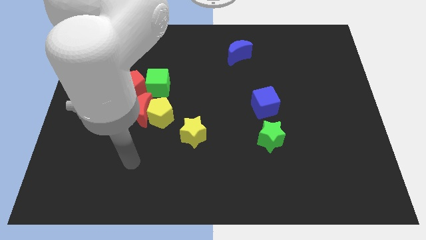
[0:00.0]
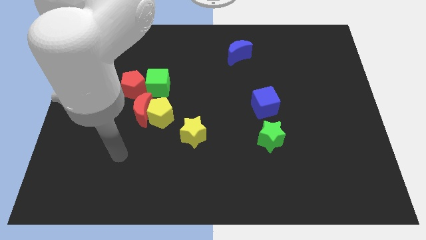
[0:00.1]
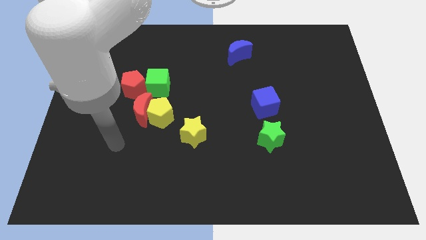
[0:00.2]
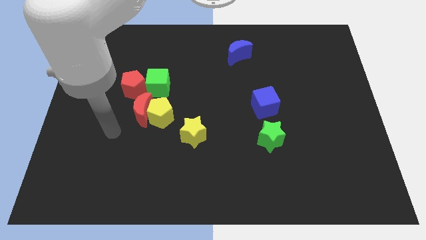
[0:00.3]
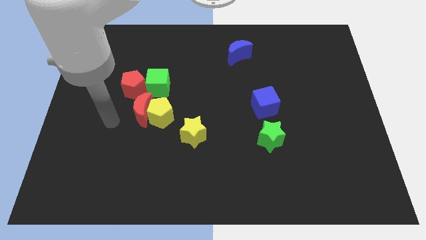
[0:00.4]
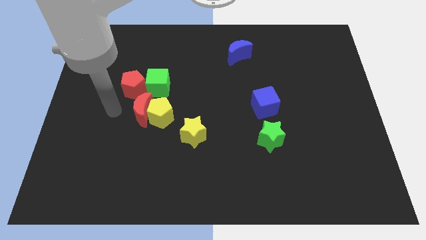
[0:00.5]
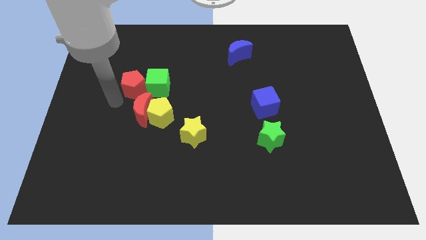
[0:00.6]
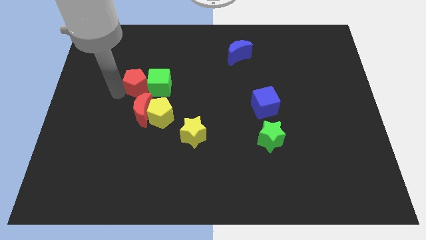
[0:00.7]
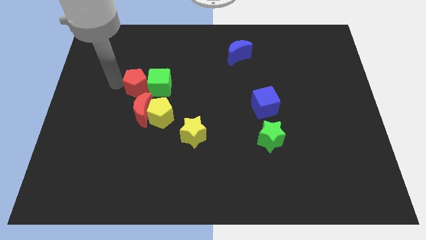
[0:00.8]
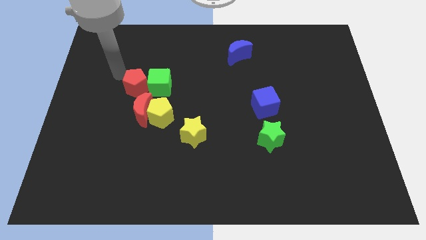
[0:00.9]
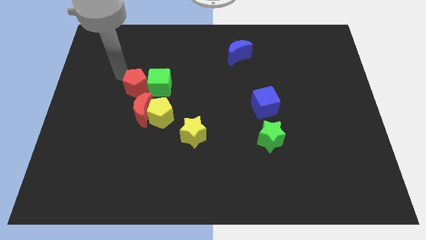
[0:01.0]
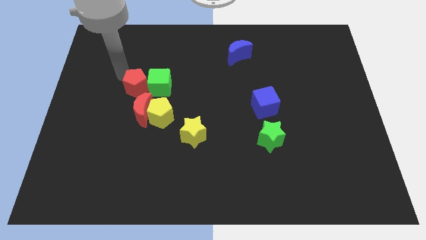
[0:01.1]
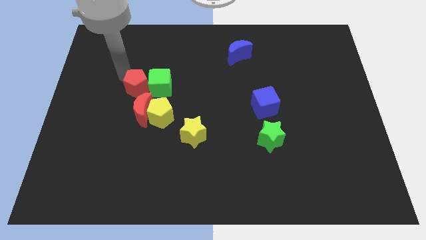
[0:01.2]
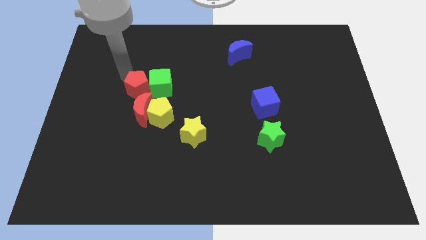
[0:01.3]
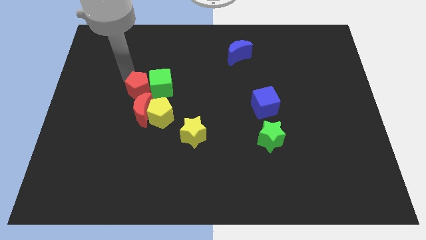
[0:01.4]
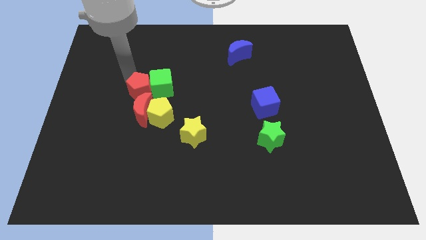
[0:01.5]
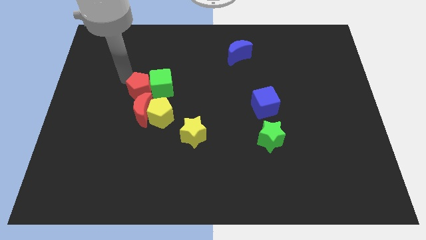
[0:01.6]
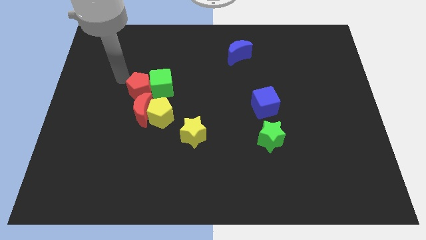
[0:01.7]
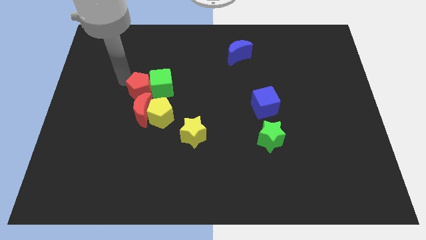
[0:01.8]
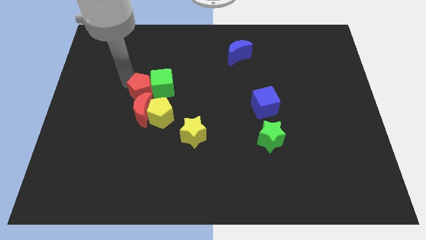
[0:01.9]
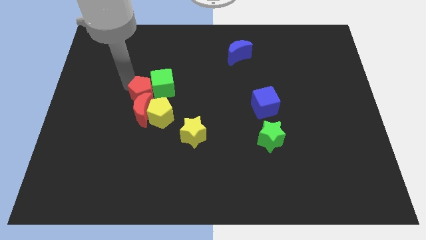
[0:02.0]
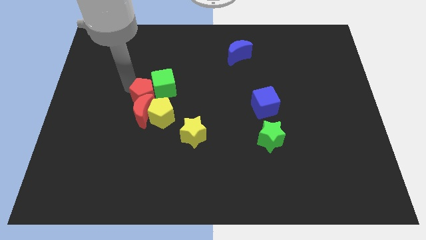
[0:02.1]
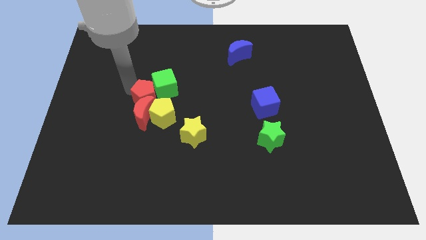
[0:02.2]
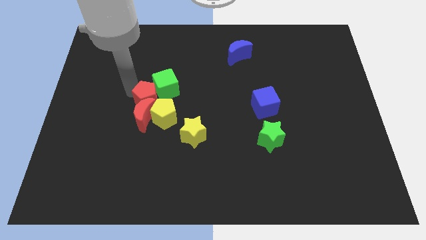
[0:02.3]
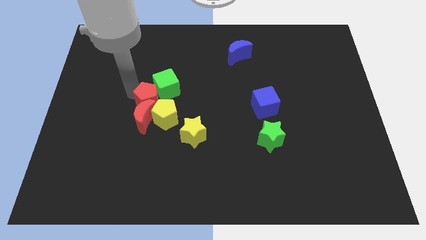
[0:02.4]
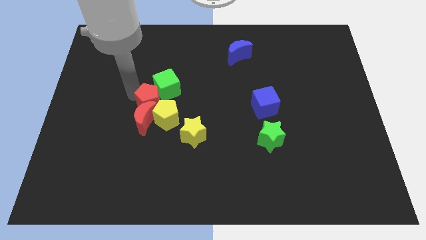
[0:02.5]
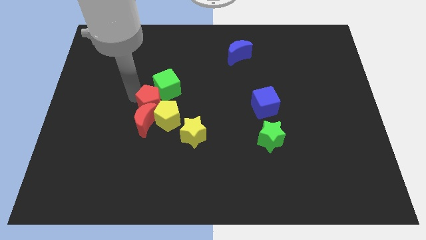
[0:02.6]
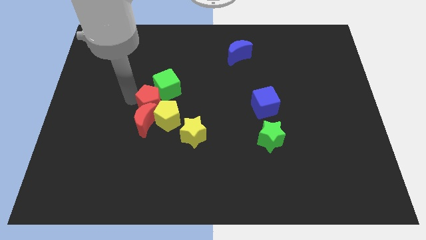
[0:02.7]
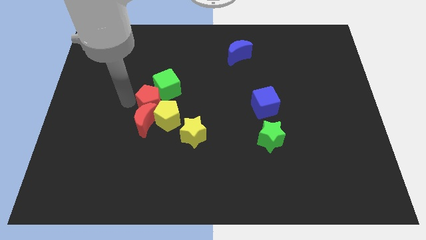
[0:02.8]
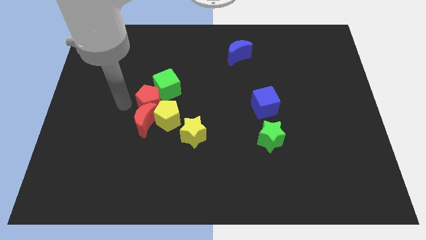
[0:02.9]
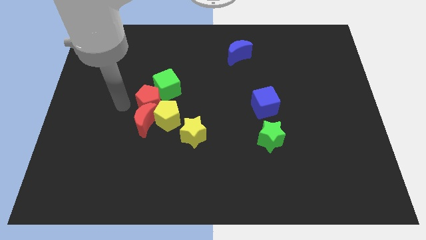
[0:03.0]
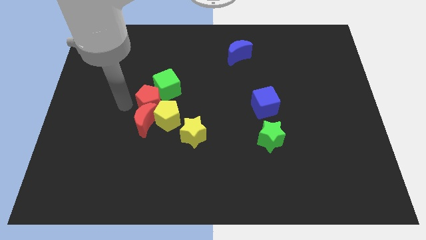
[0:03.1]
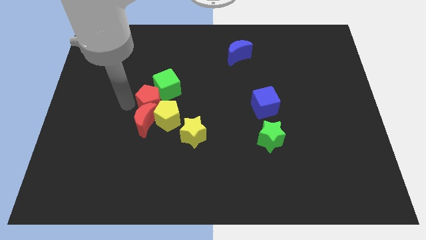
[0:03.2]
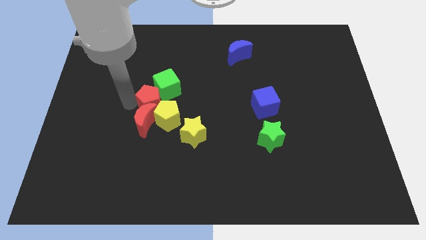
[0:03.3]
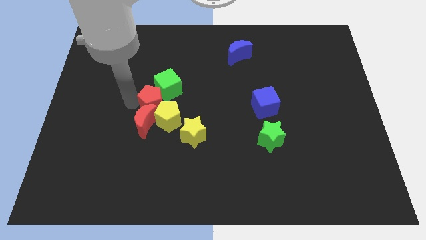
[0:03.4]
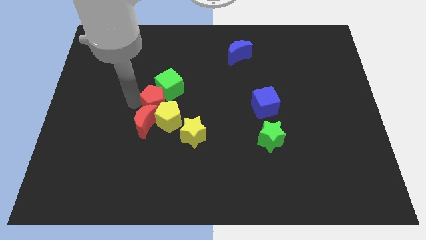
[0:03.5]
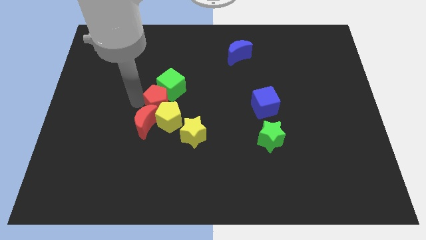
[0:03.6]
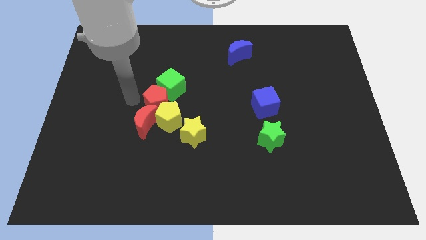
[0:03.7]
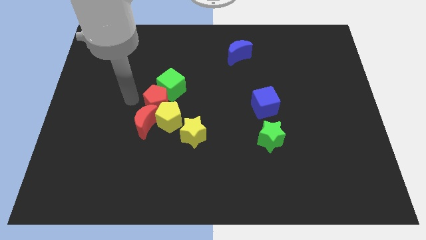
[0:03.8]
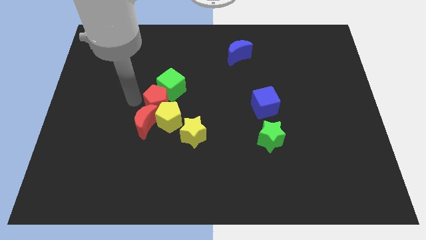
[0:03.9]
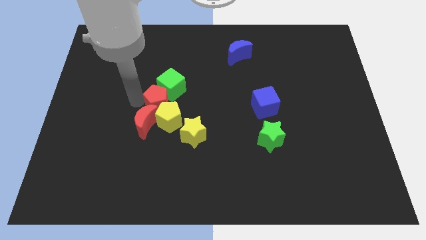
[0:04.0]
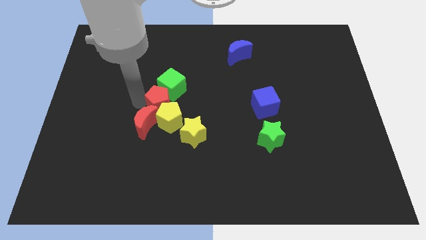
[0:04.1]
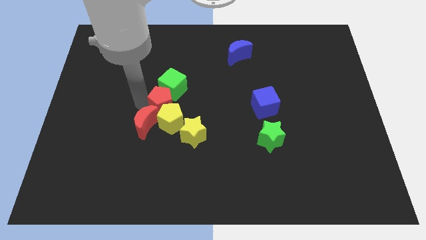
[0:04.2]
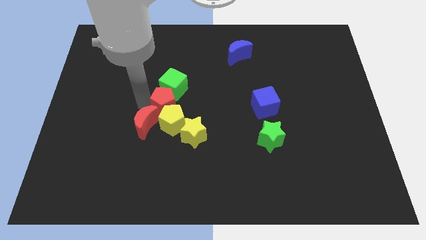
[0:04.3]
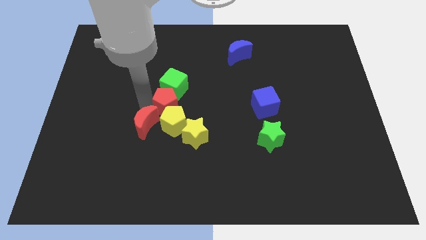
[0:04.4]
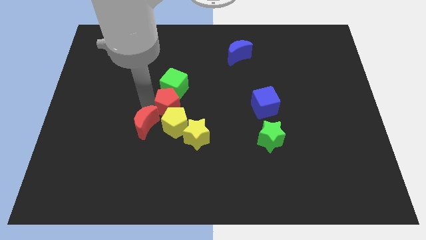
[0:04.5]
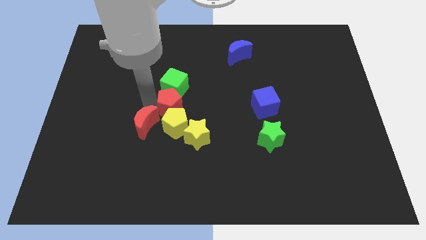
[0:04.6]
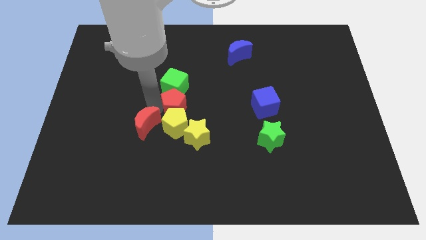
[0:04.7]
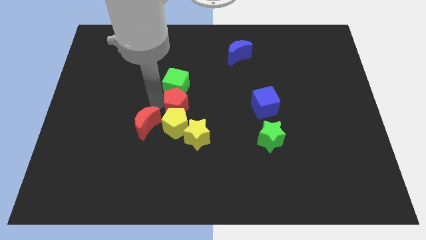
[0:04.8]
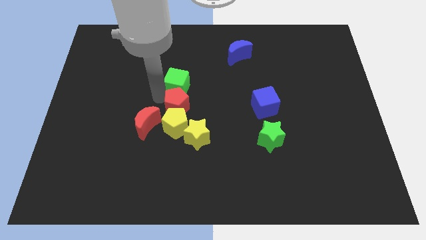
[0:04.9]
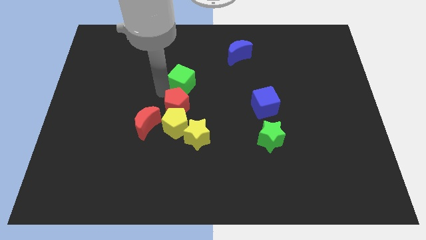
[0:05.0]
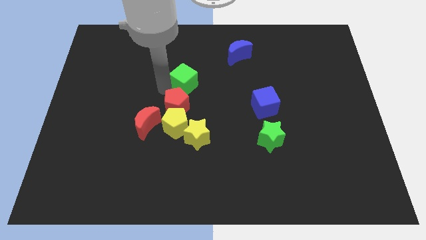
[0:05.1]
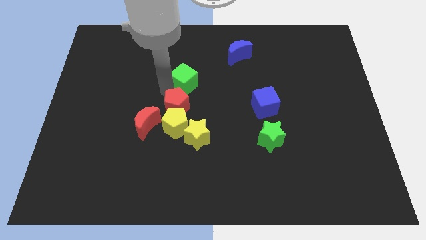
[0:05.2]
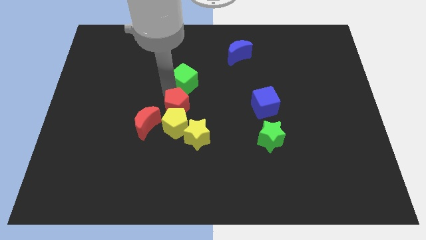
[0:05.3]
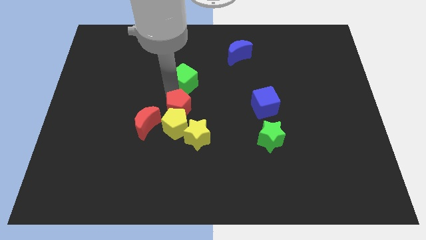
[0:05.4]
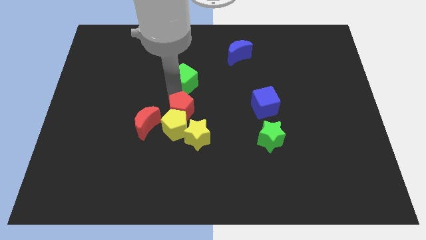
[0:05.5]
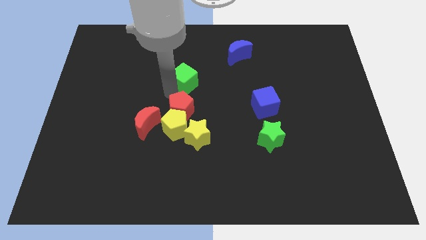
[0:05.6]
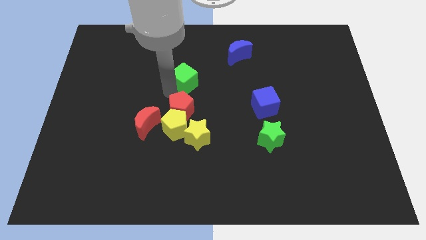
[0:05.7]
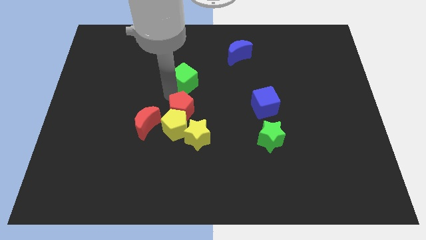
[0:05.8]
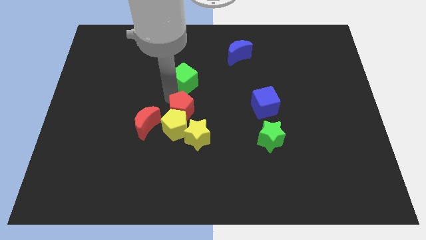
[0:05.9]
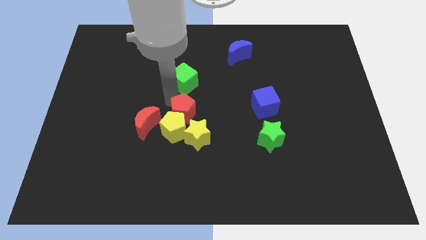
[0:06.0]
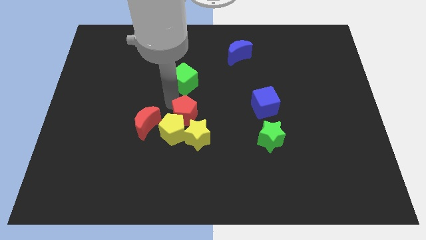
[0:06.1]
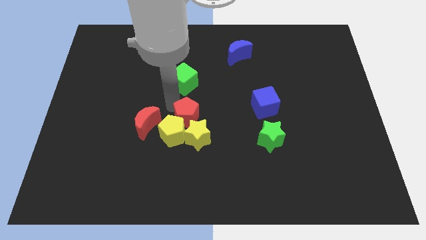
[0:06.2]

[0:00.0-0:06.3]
move the red pentagon towards the yellow star

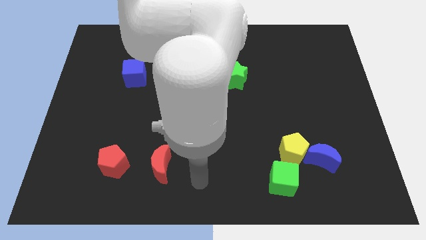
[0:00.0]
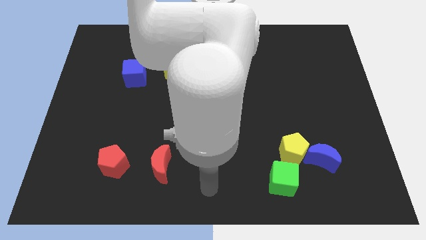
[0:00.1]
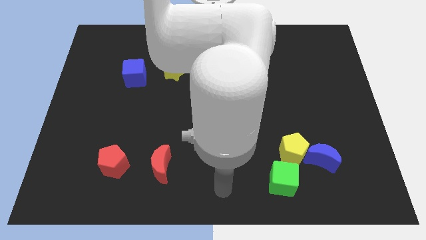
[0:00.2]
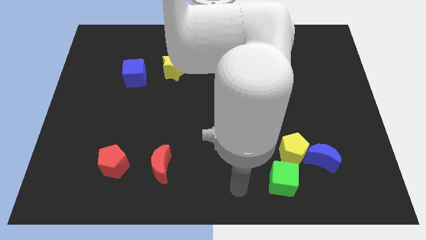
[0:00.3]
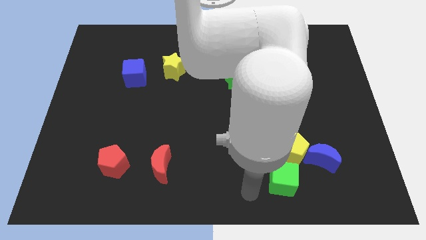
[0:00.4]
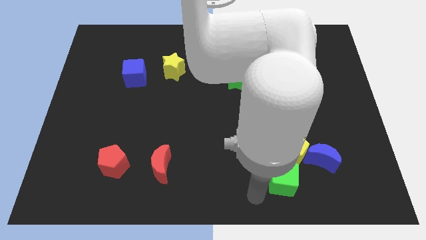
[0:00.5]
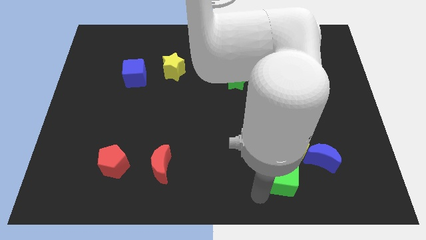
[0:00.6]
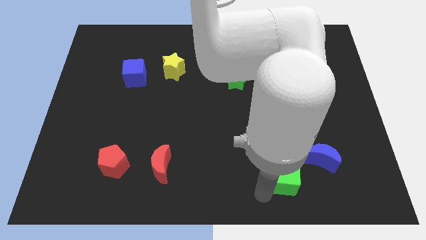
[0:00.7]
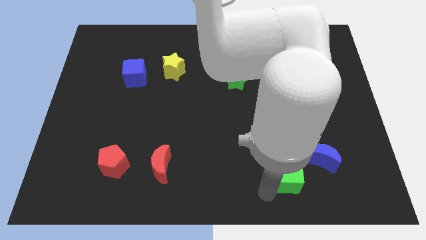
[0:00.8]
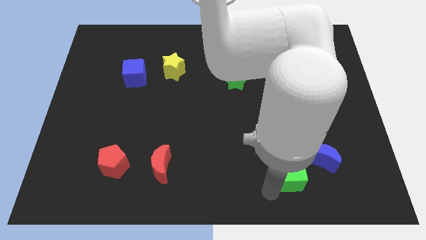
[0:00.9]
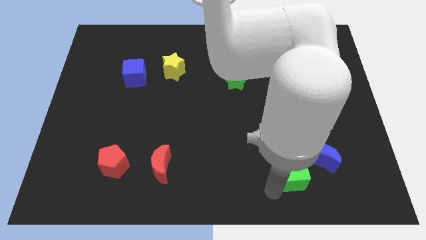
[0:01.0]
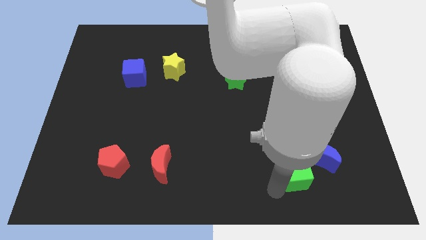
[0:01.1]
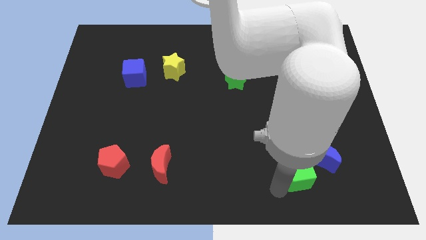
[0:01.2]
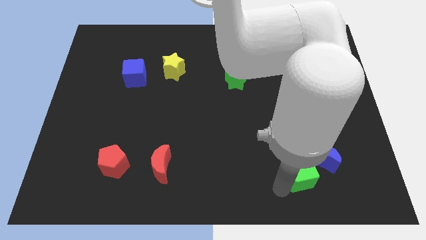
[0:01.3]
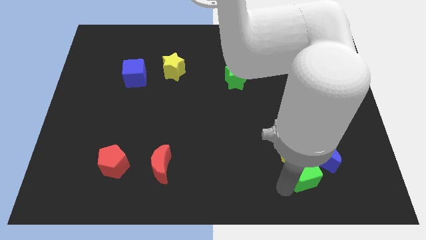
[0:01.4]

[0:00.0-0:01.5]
push the green cube next to the blue moon
